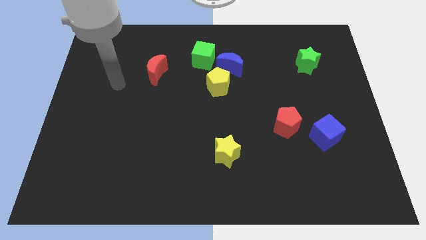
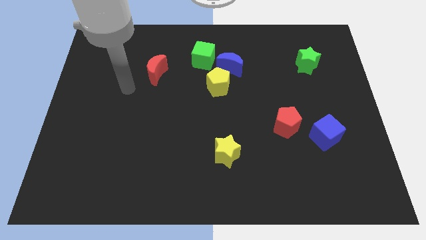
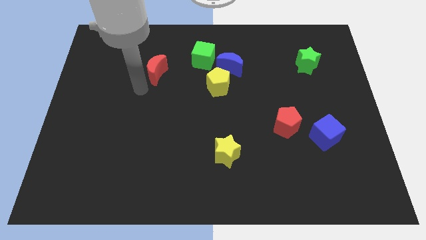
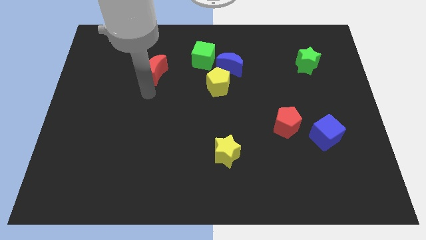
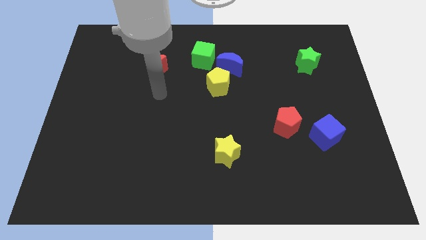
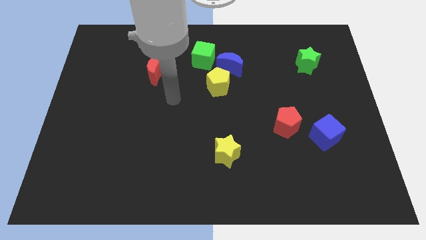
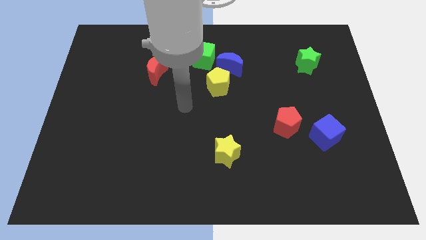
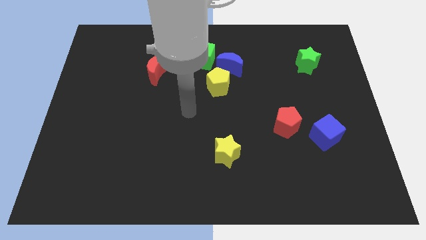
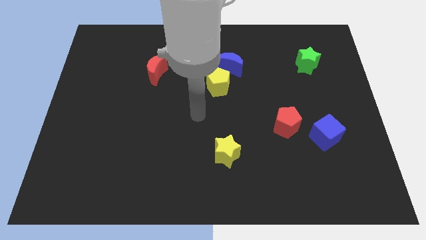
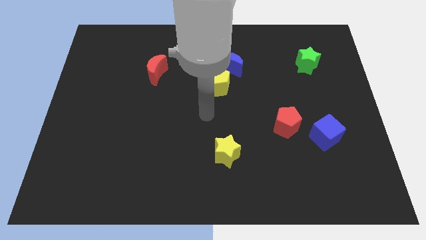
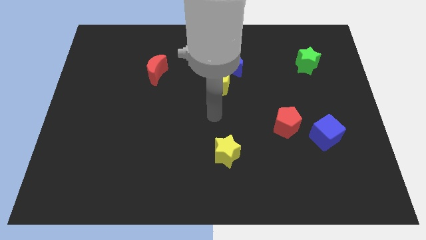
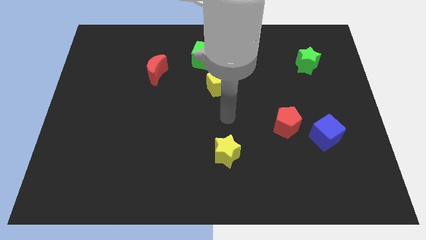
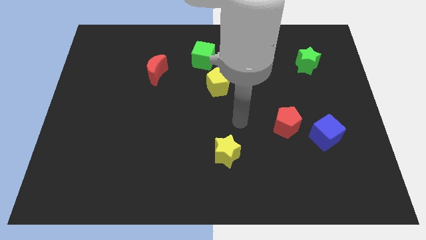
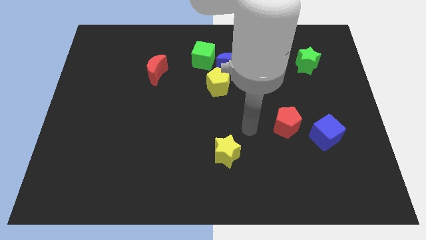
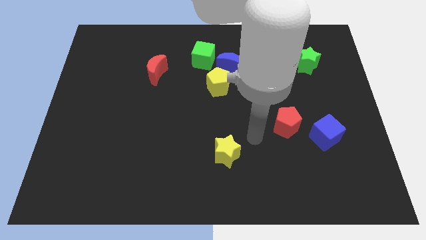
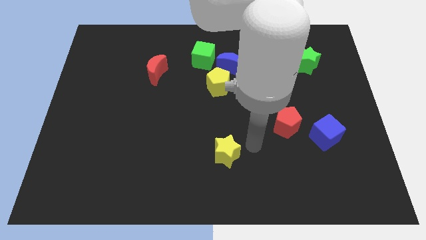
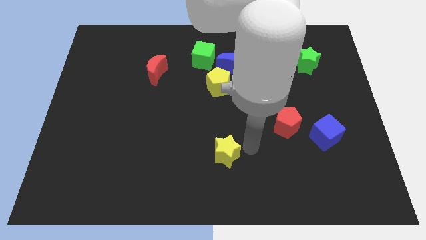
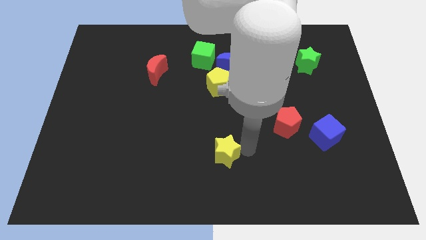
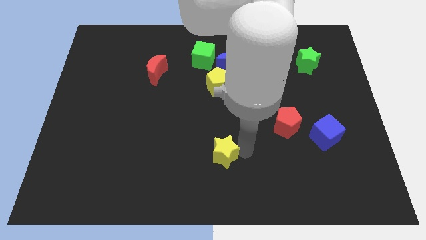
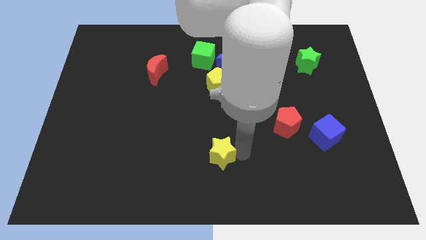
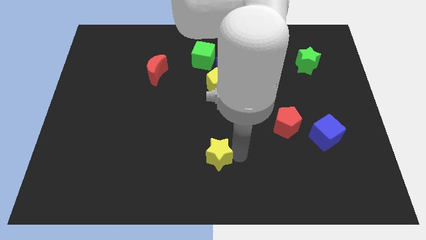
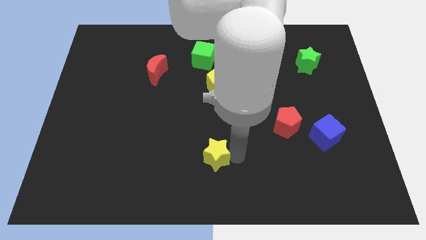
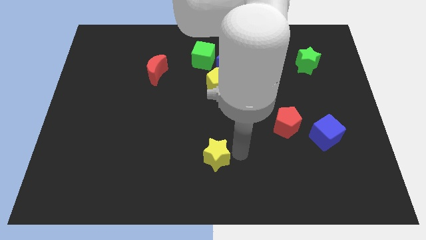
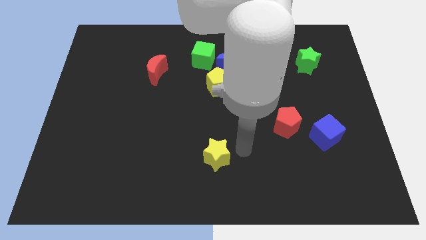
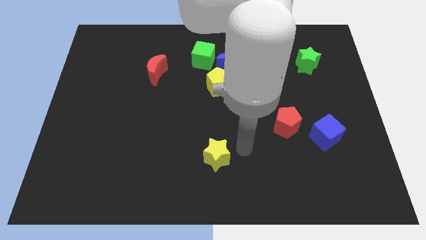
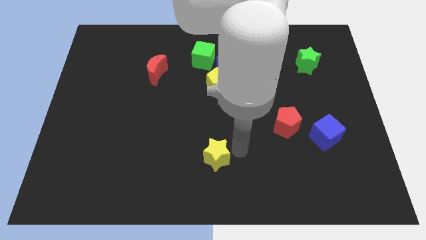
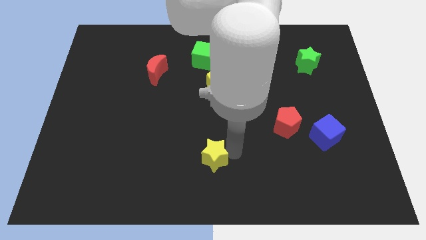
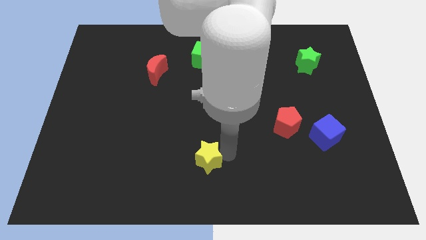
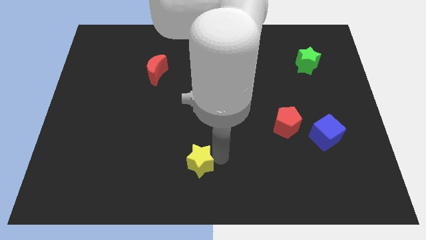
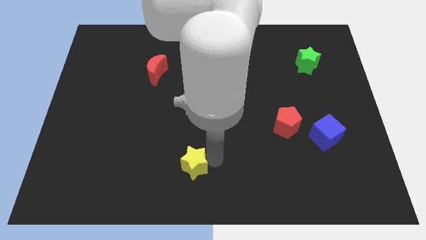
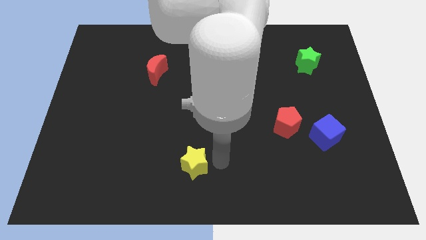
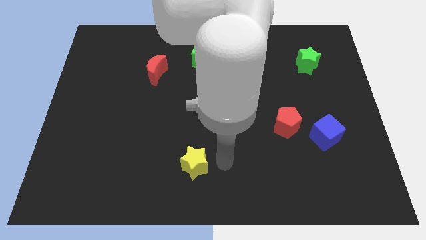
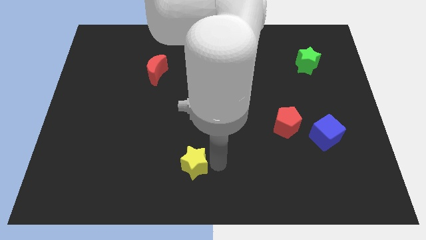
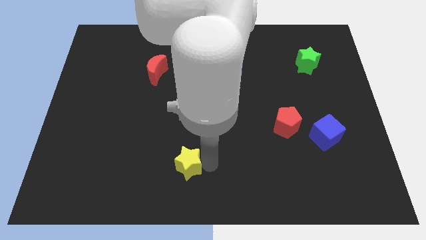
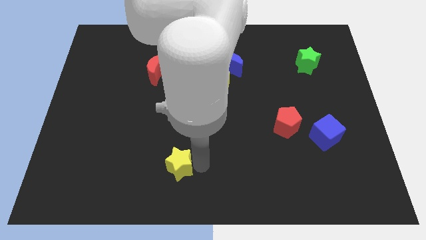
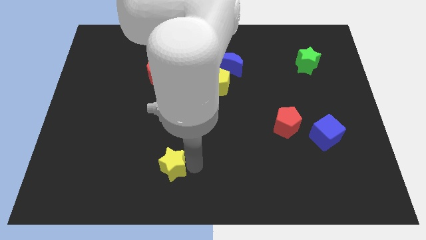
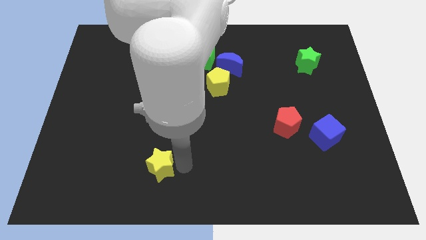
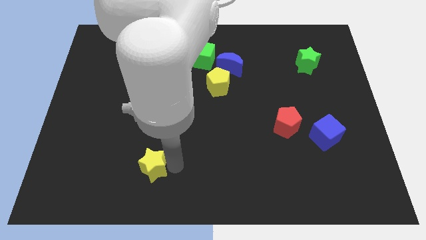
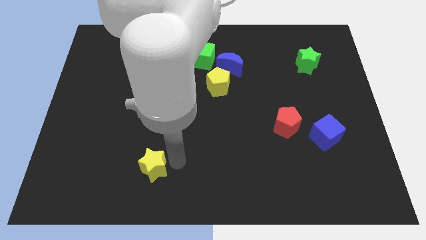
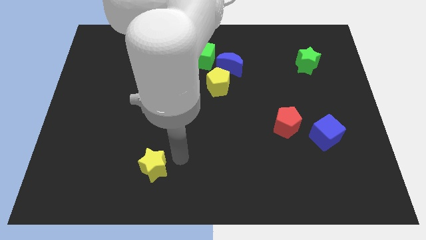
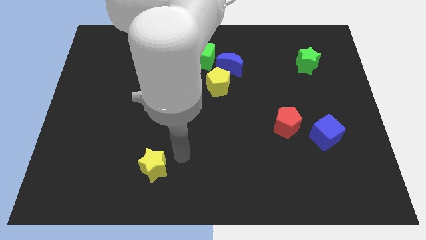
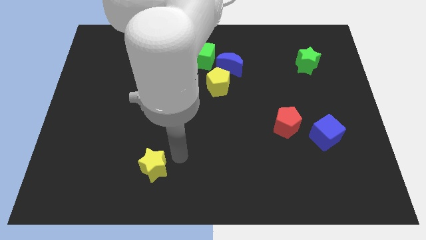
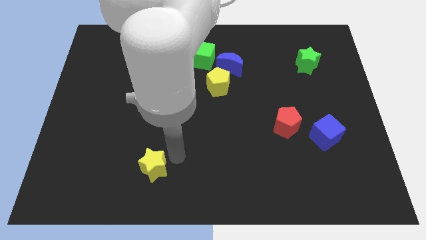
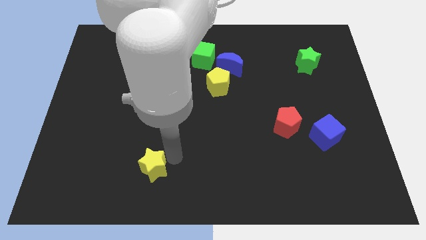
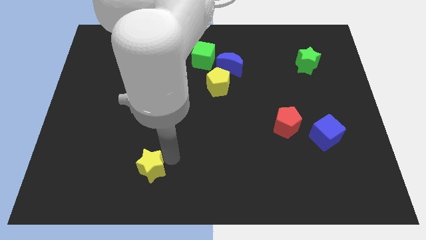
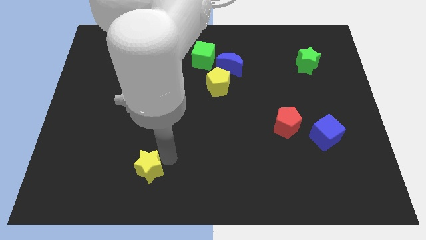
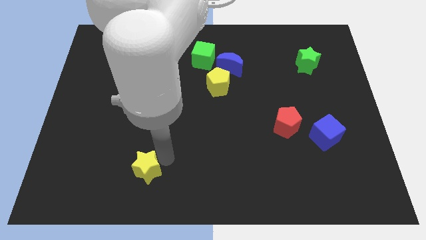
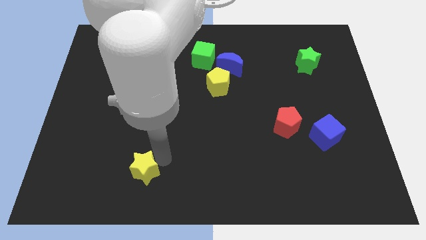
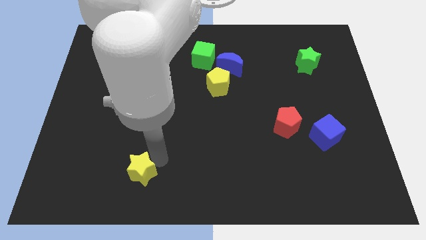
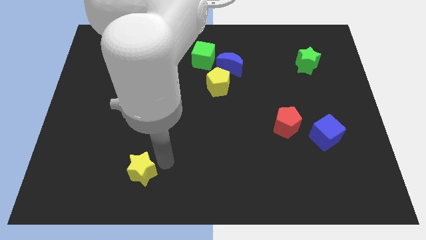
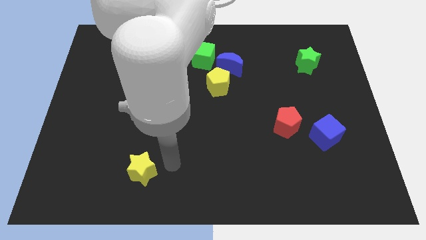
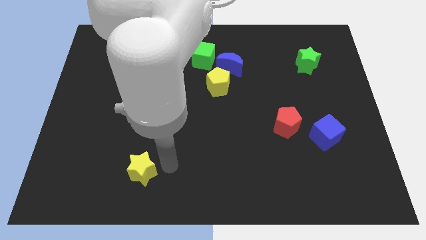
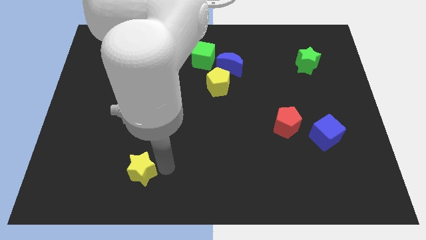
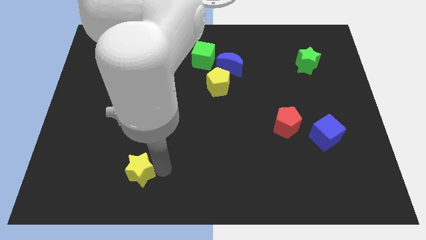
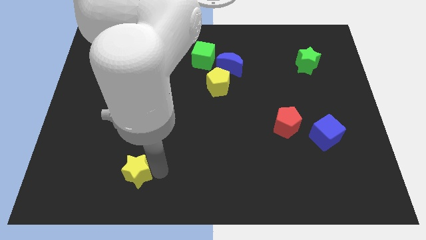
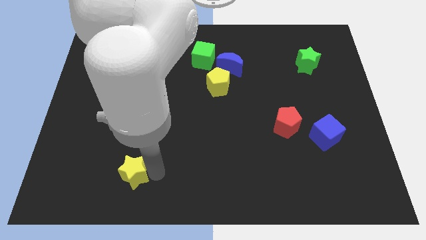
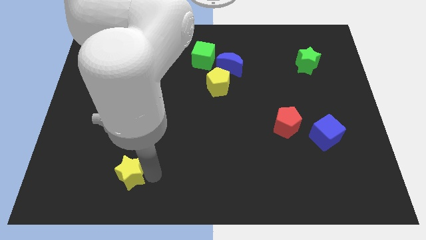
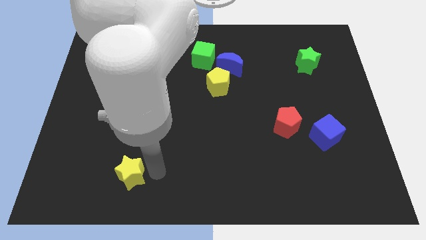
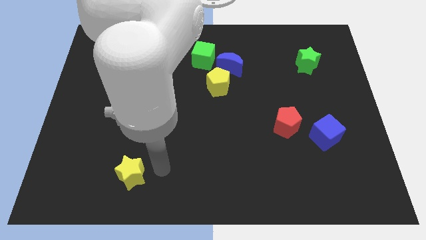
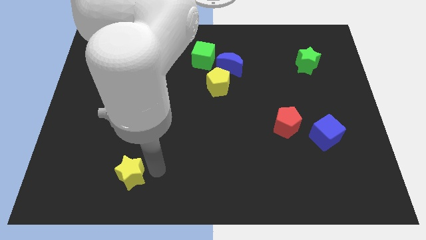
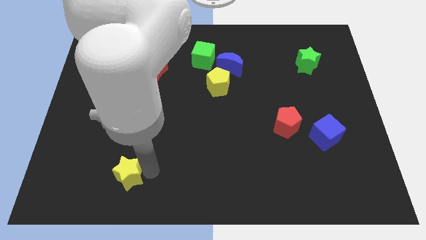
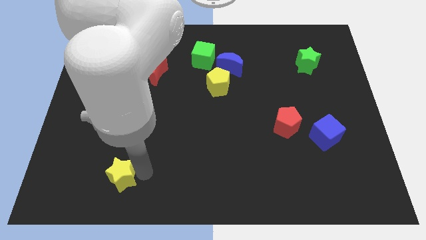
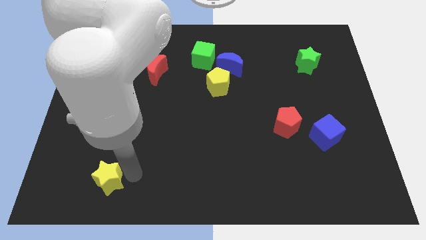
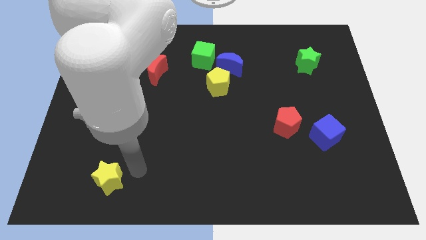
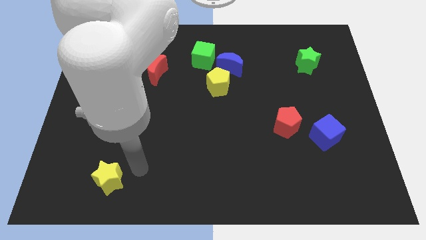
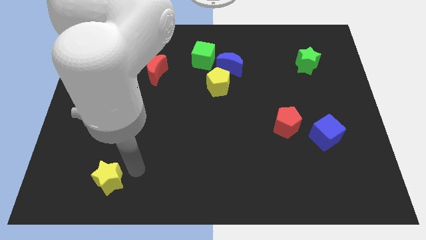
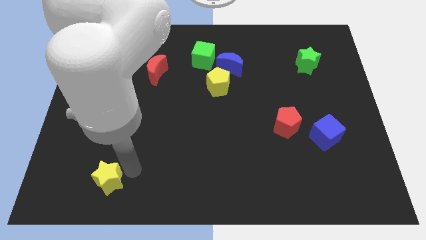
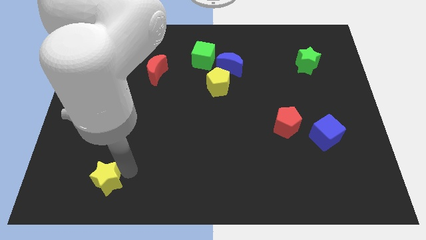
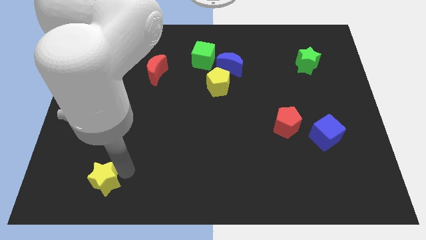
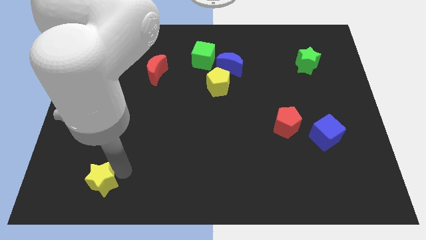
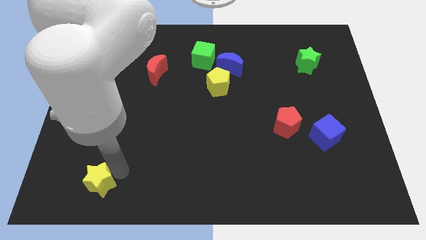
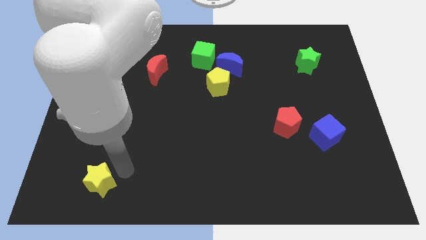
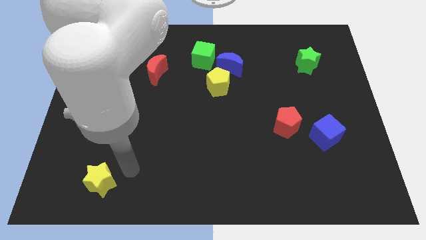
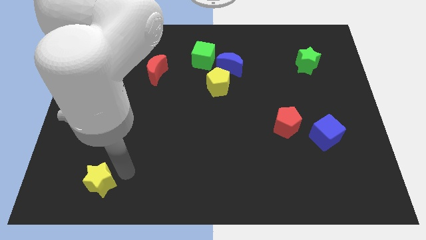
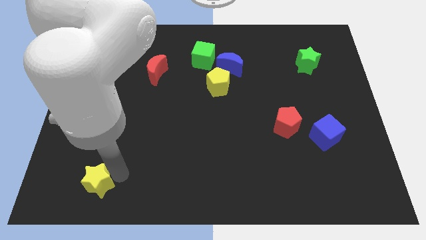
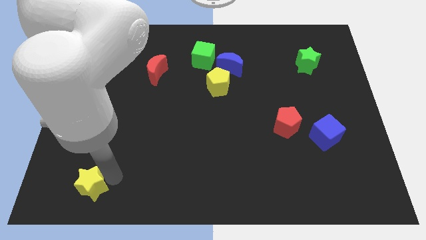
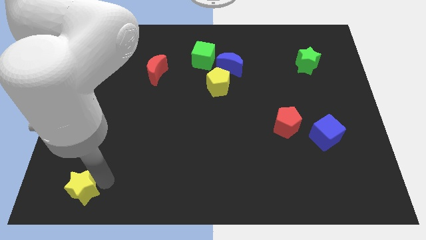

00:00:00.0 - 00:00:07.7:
push the yellow star to the bottom left
